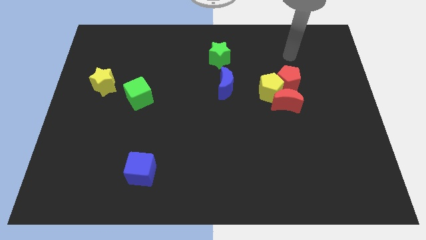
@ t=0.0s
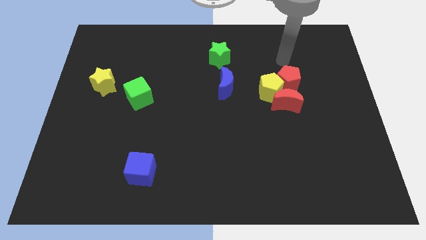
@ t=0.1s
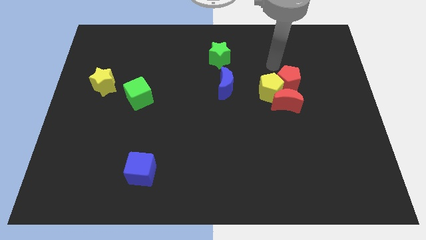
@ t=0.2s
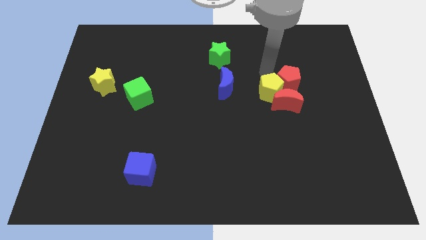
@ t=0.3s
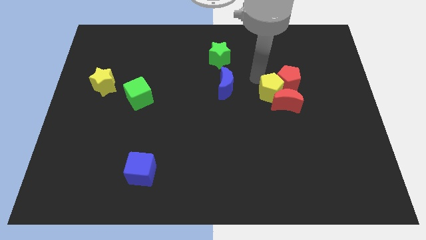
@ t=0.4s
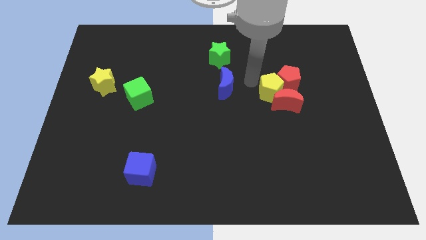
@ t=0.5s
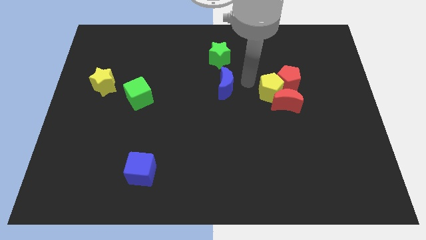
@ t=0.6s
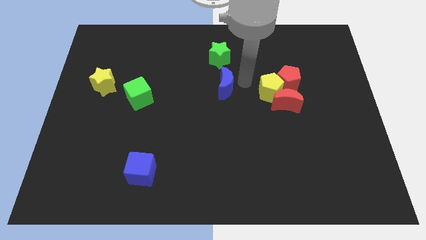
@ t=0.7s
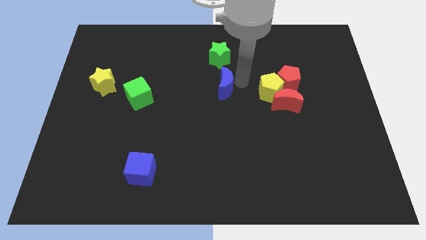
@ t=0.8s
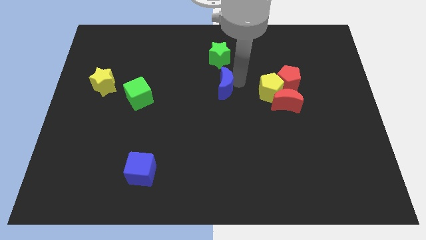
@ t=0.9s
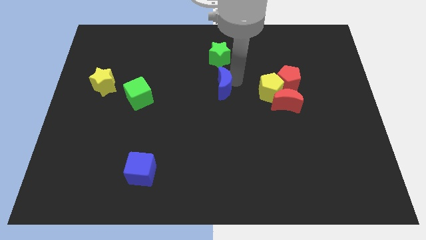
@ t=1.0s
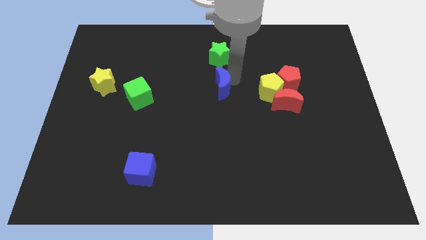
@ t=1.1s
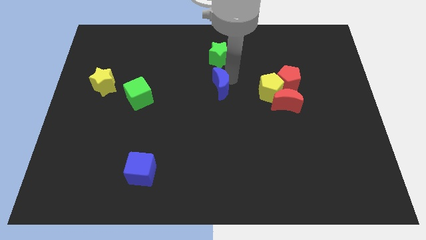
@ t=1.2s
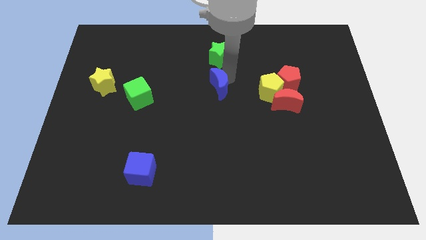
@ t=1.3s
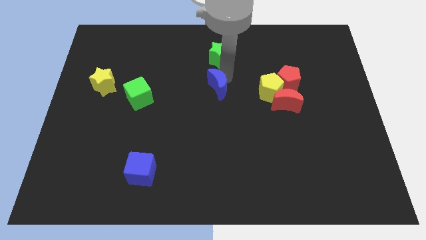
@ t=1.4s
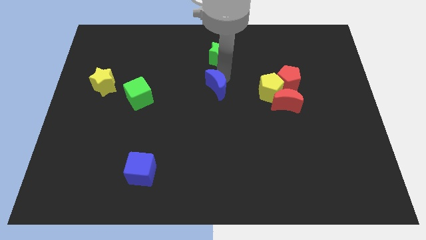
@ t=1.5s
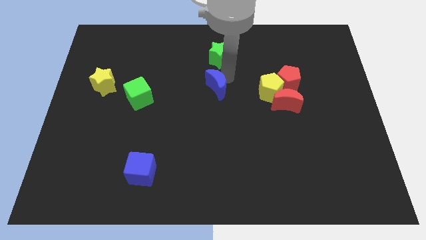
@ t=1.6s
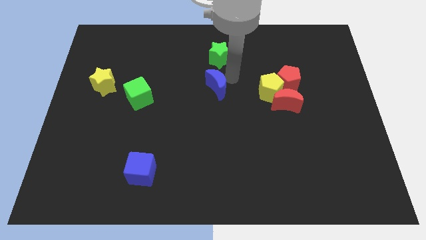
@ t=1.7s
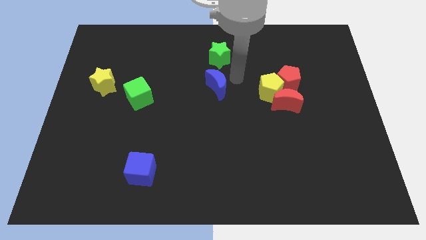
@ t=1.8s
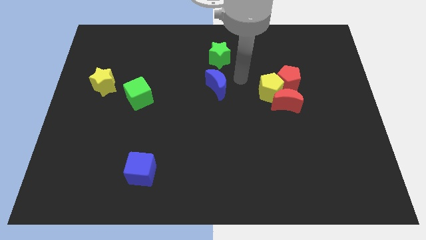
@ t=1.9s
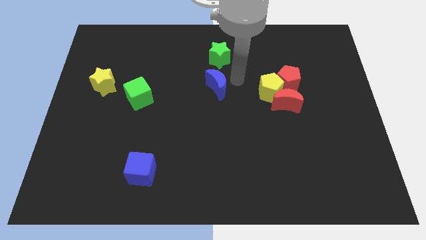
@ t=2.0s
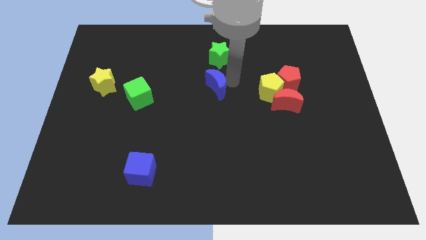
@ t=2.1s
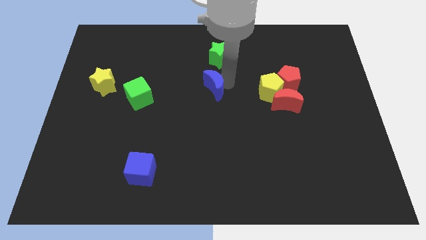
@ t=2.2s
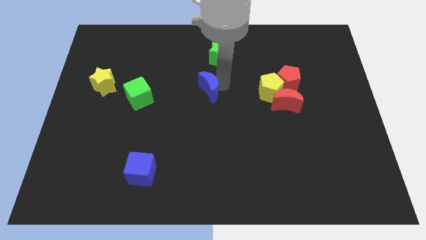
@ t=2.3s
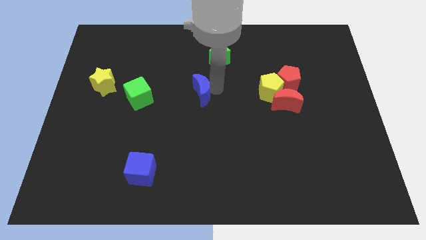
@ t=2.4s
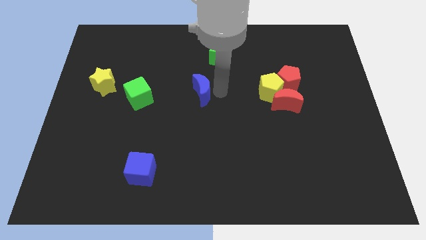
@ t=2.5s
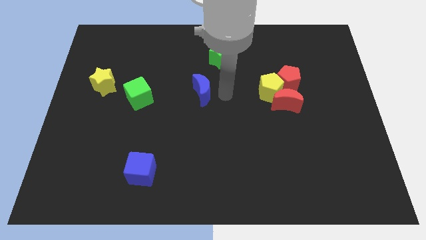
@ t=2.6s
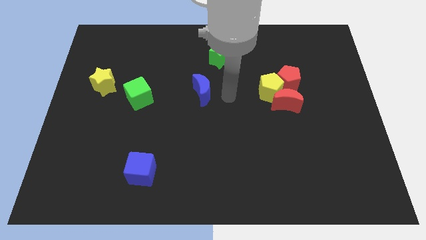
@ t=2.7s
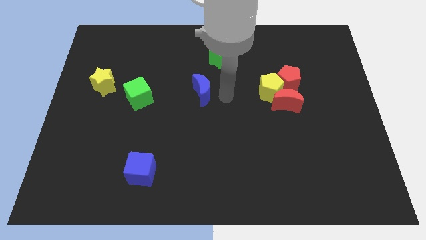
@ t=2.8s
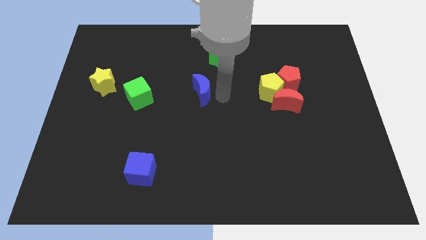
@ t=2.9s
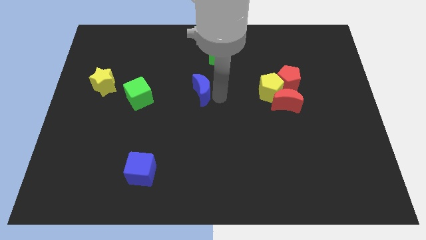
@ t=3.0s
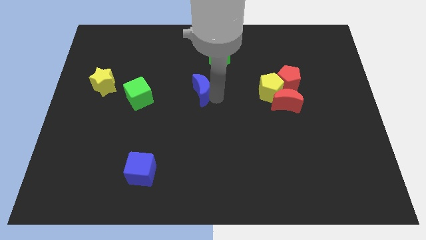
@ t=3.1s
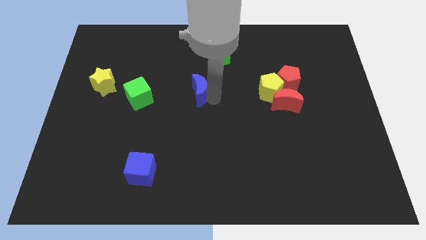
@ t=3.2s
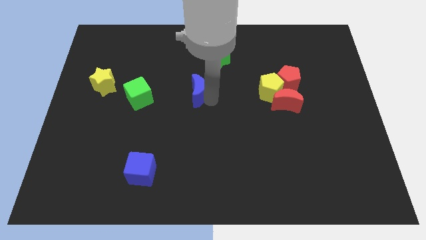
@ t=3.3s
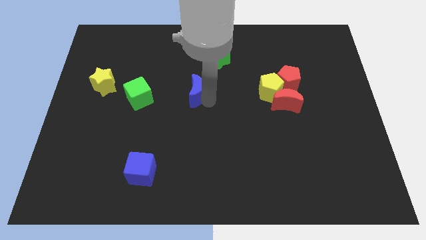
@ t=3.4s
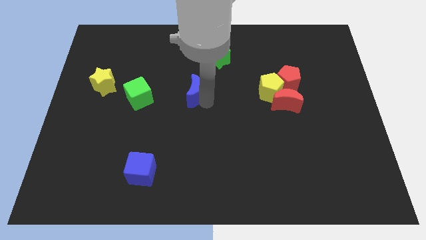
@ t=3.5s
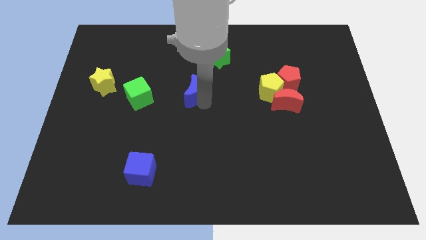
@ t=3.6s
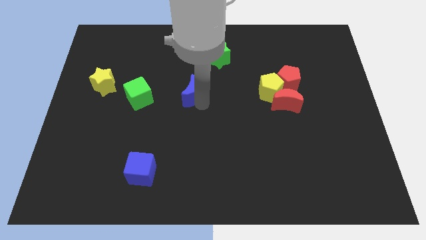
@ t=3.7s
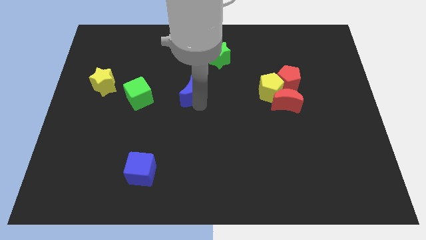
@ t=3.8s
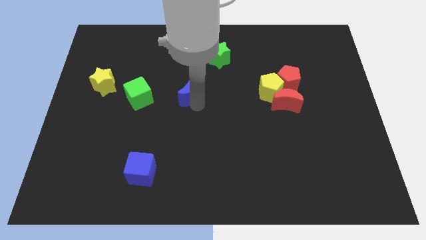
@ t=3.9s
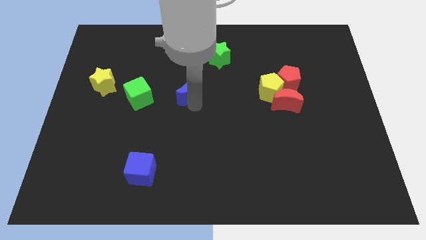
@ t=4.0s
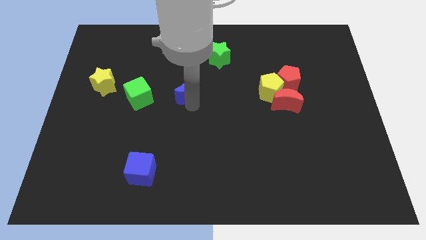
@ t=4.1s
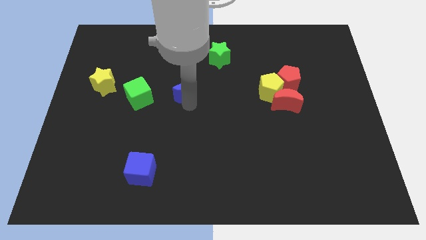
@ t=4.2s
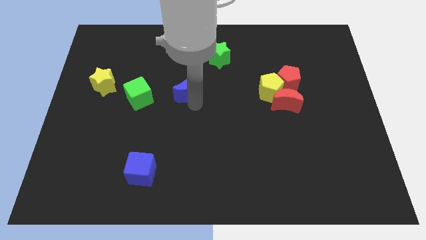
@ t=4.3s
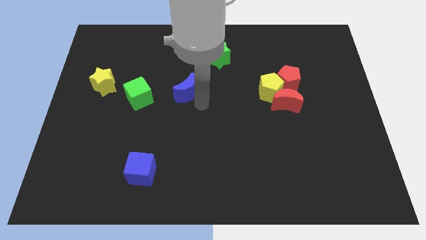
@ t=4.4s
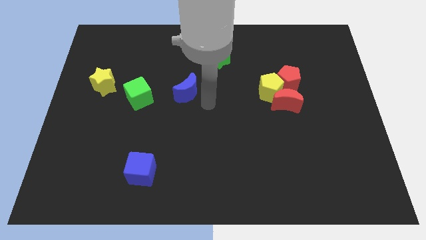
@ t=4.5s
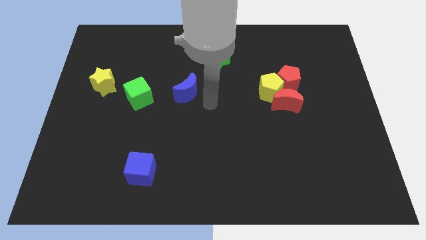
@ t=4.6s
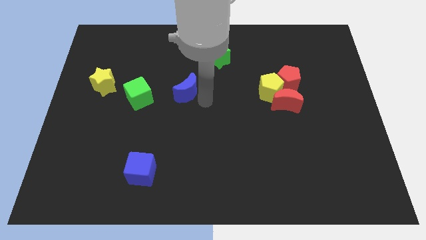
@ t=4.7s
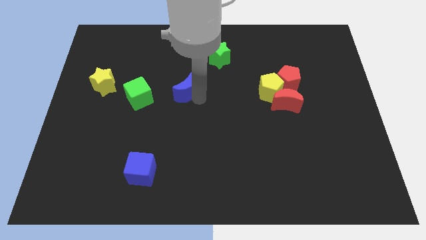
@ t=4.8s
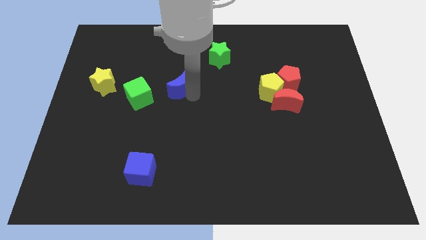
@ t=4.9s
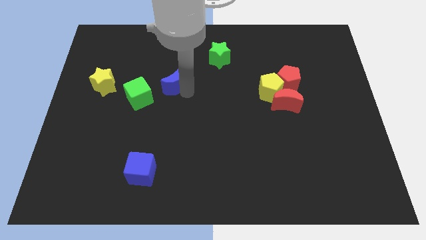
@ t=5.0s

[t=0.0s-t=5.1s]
push the blue moon to the top right side of the green cube

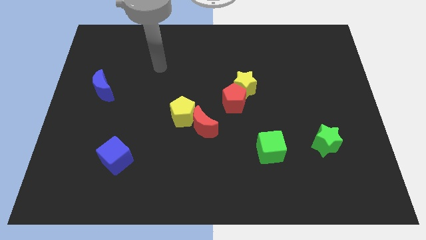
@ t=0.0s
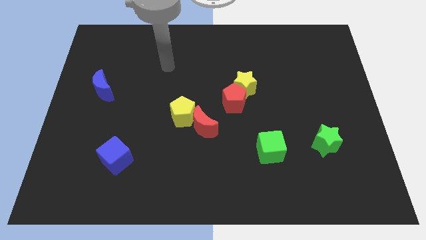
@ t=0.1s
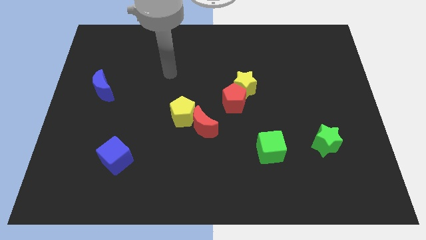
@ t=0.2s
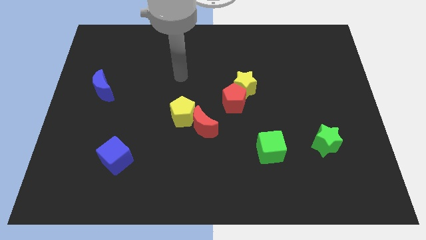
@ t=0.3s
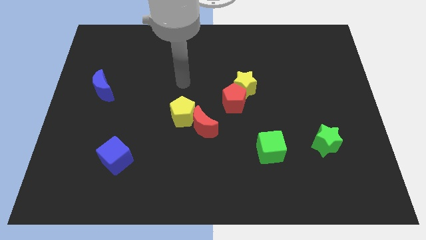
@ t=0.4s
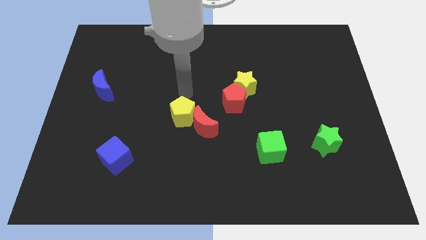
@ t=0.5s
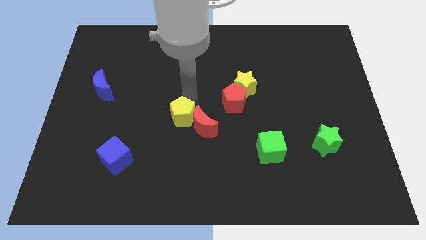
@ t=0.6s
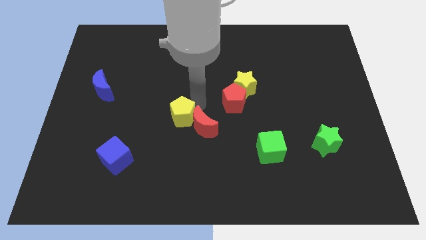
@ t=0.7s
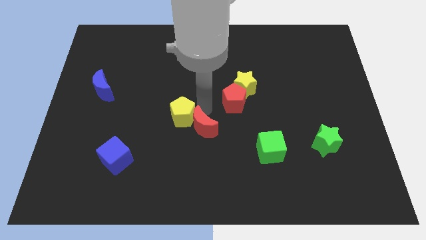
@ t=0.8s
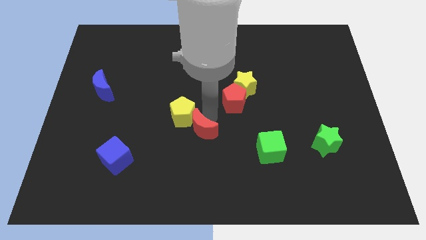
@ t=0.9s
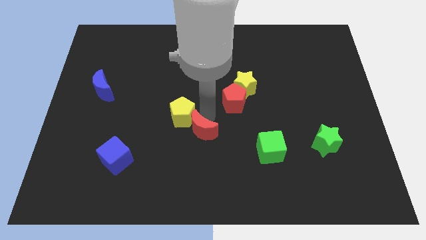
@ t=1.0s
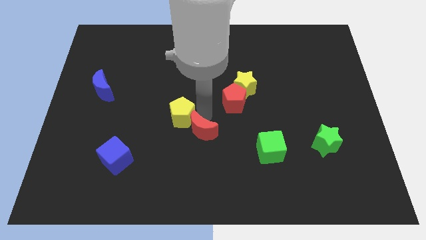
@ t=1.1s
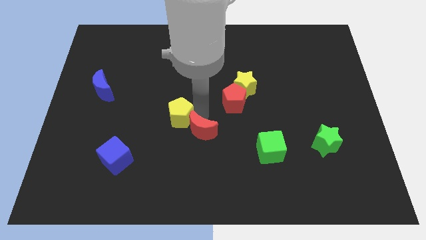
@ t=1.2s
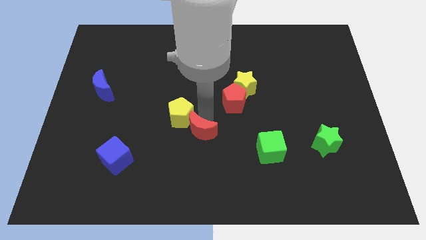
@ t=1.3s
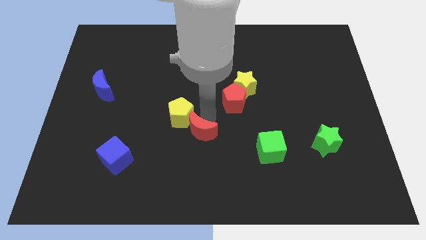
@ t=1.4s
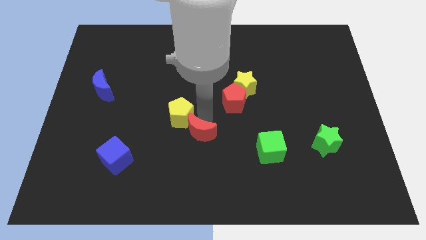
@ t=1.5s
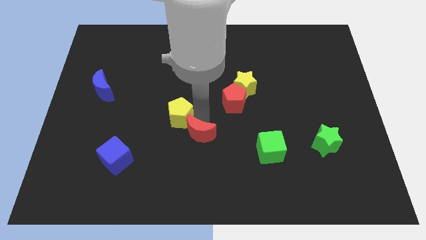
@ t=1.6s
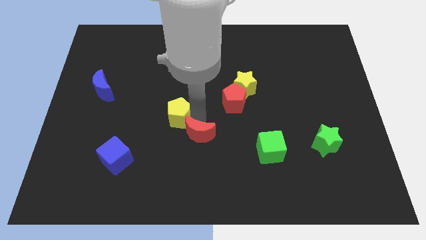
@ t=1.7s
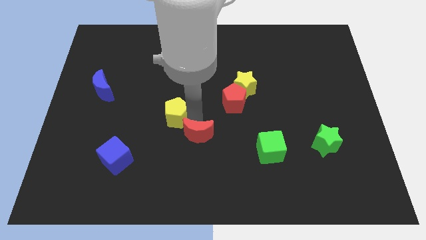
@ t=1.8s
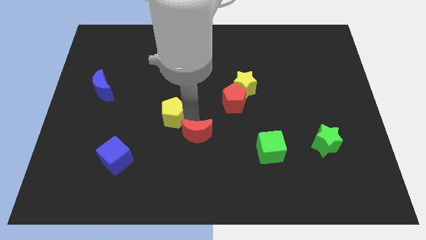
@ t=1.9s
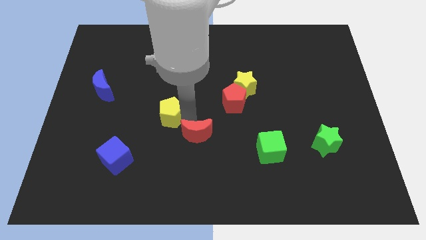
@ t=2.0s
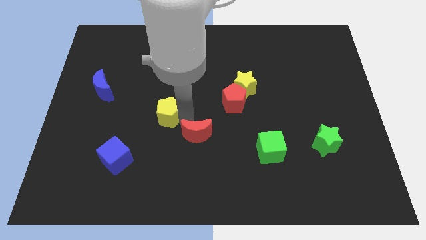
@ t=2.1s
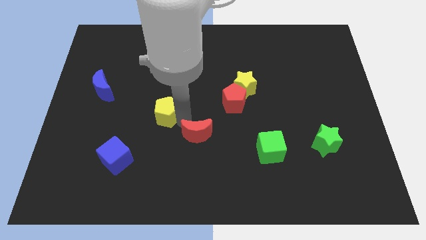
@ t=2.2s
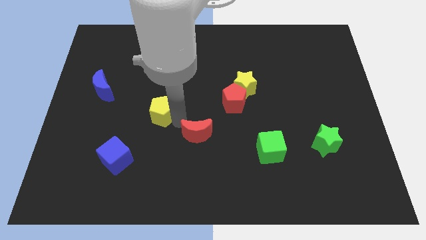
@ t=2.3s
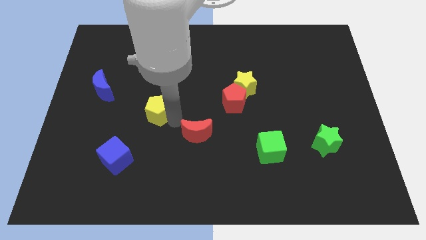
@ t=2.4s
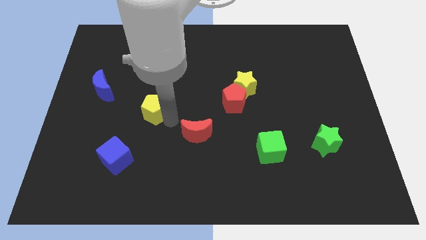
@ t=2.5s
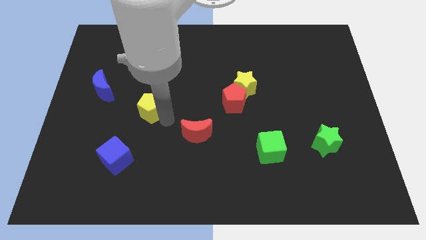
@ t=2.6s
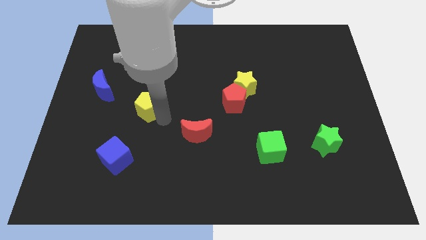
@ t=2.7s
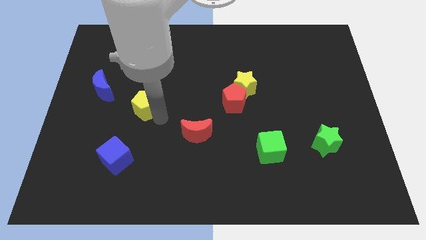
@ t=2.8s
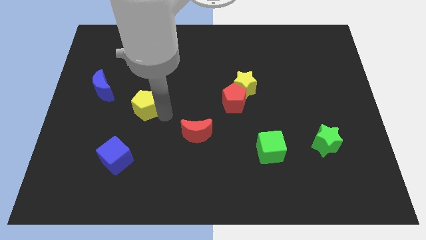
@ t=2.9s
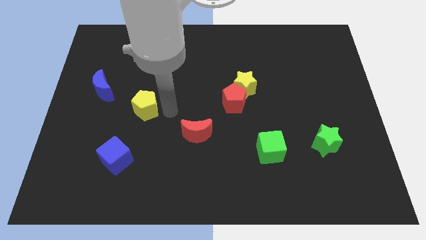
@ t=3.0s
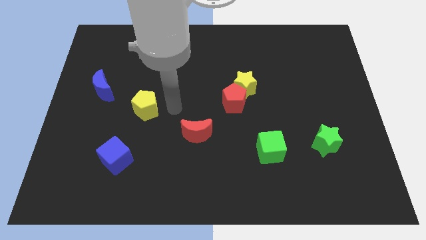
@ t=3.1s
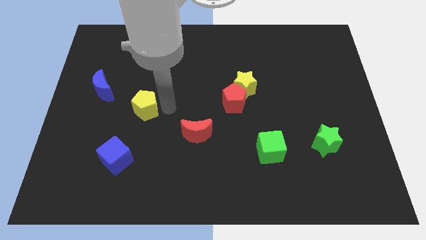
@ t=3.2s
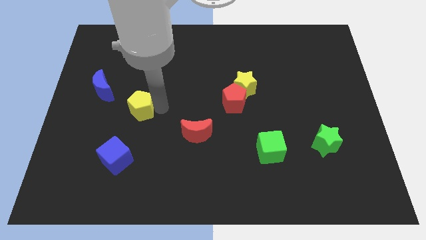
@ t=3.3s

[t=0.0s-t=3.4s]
put the yellow pentagon diagonally down and to the right of the blue moon
